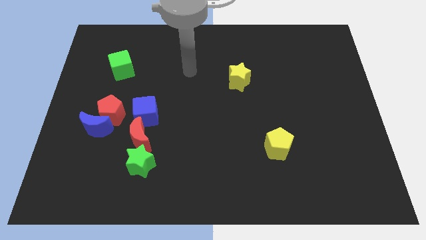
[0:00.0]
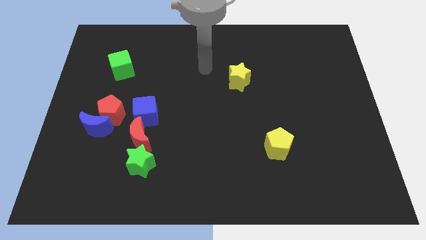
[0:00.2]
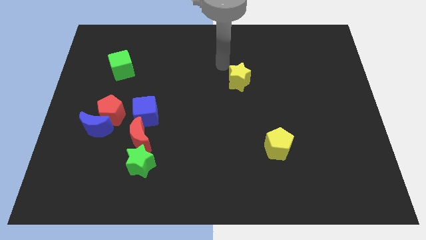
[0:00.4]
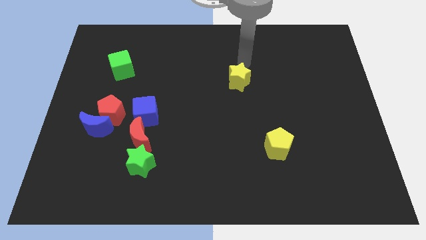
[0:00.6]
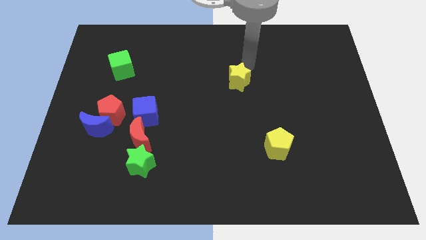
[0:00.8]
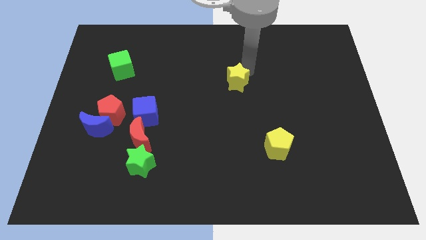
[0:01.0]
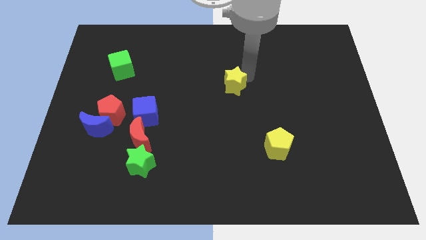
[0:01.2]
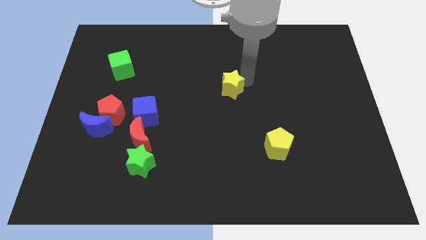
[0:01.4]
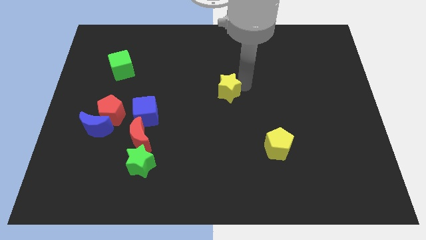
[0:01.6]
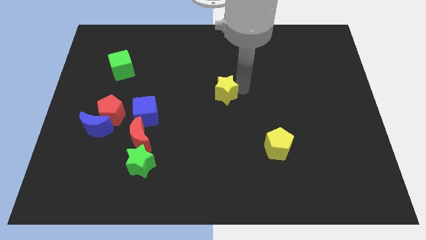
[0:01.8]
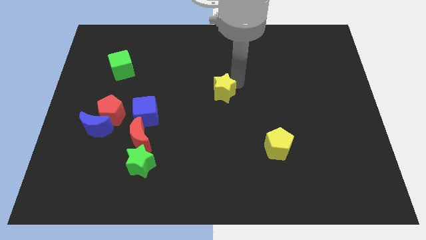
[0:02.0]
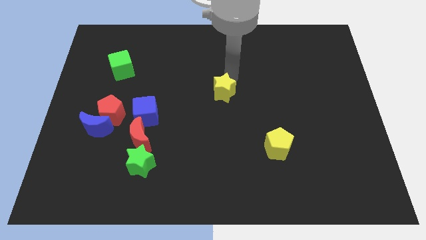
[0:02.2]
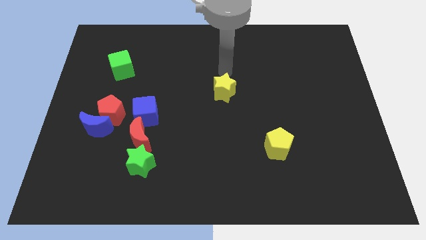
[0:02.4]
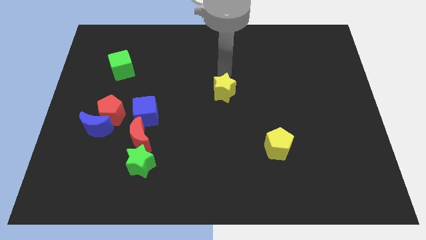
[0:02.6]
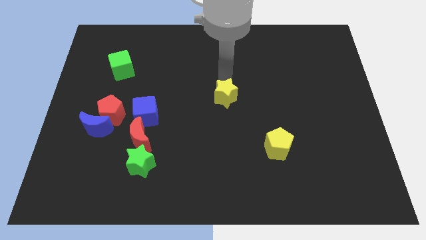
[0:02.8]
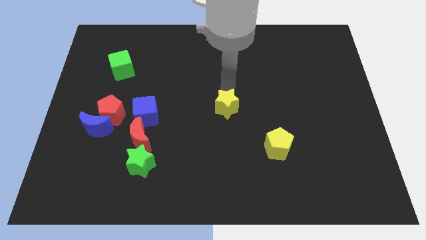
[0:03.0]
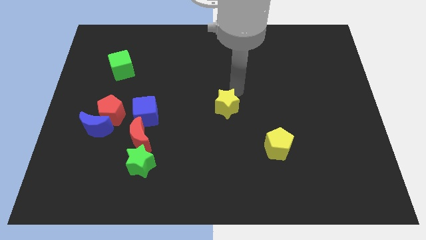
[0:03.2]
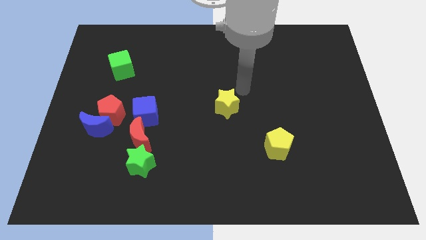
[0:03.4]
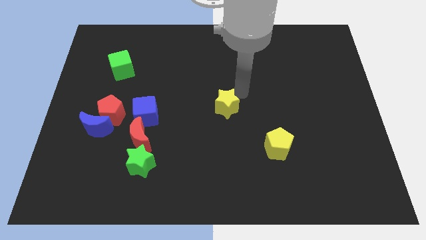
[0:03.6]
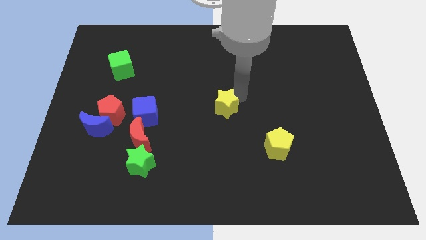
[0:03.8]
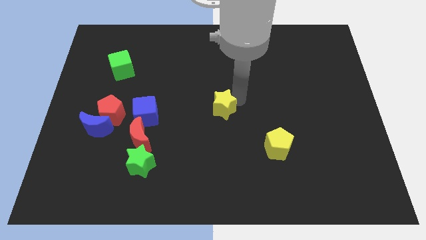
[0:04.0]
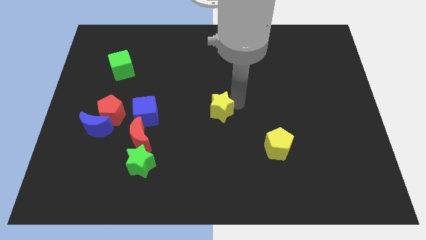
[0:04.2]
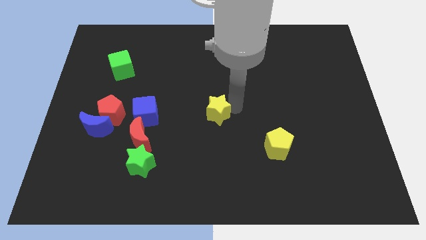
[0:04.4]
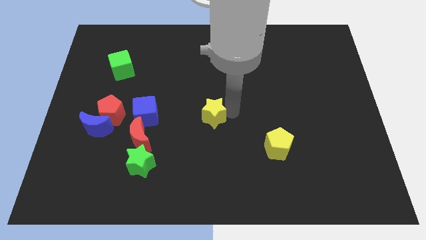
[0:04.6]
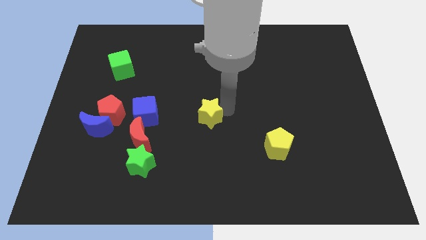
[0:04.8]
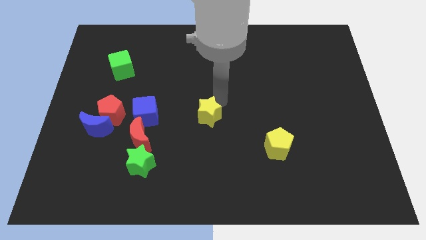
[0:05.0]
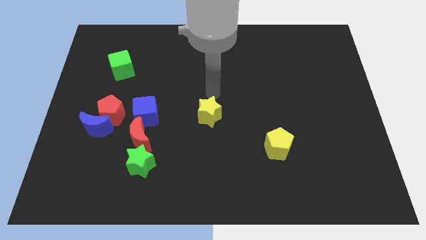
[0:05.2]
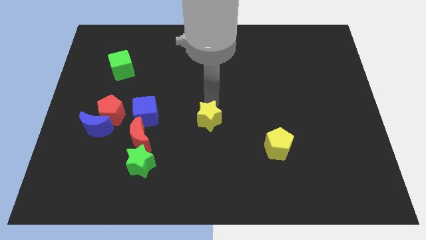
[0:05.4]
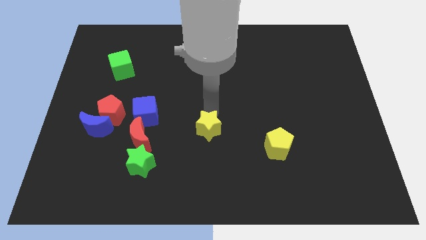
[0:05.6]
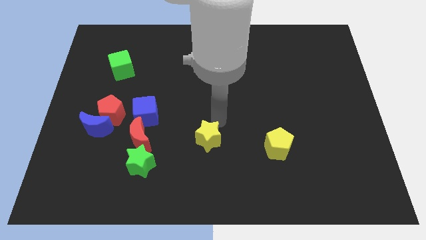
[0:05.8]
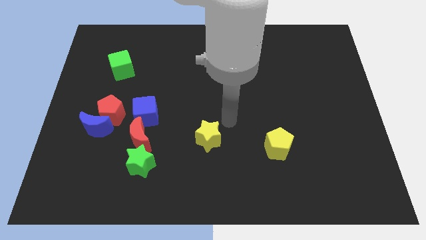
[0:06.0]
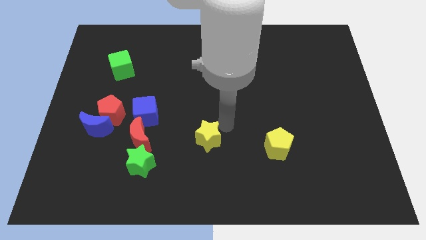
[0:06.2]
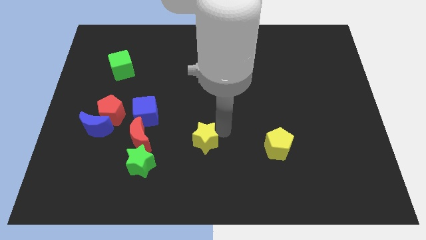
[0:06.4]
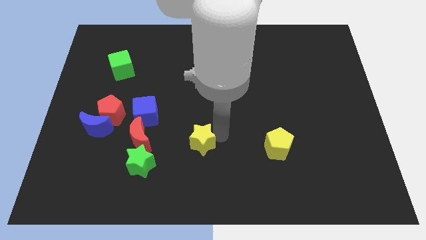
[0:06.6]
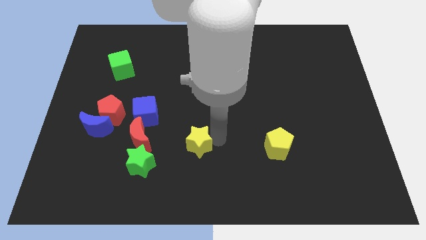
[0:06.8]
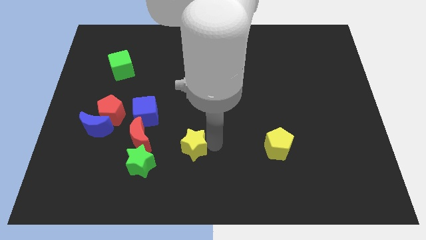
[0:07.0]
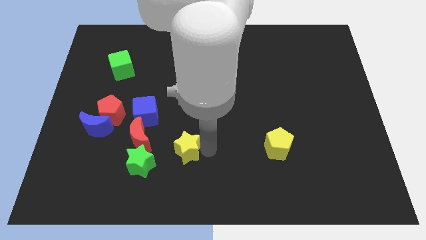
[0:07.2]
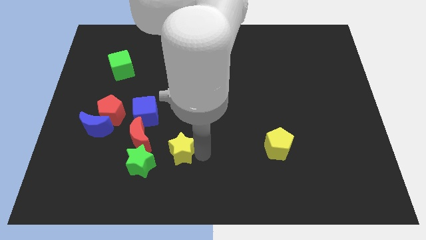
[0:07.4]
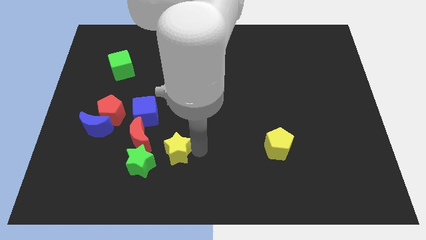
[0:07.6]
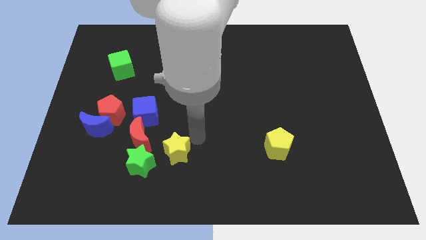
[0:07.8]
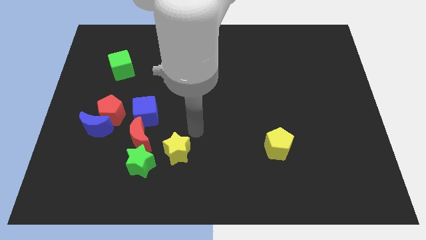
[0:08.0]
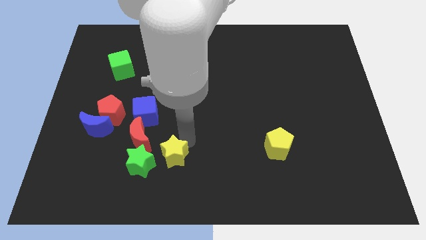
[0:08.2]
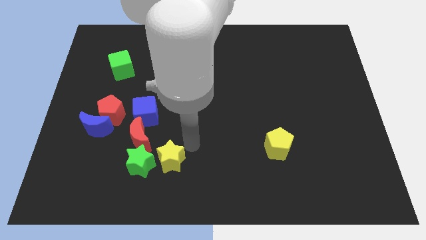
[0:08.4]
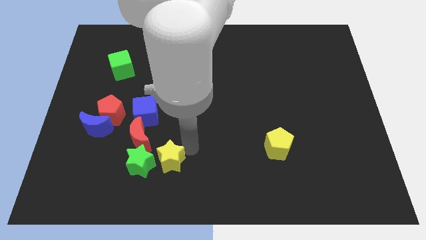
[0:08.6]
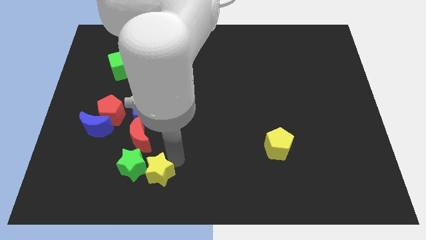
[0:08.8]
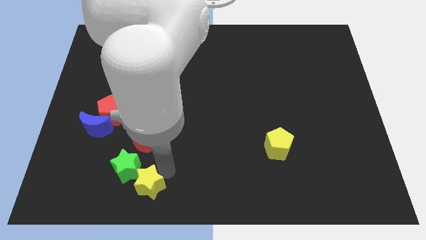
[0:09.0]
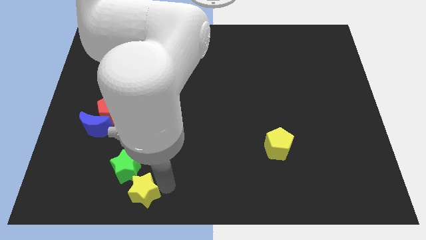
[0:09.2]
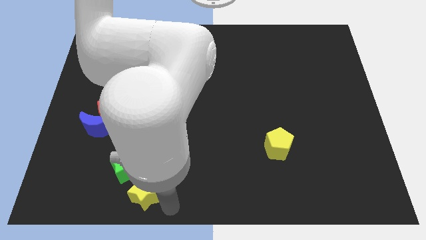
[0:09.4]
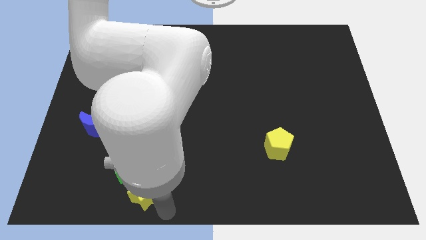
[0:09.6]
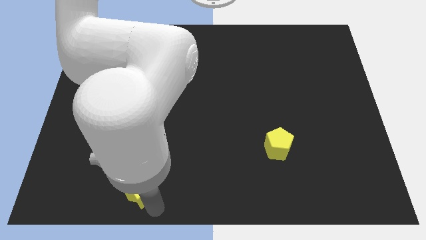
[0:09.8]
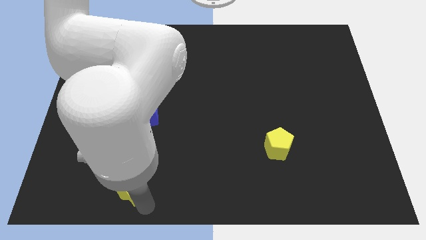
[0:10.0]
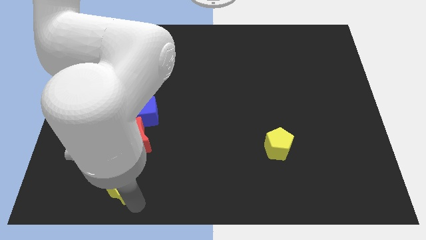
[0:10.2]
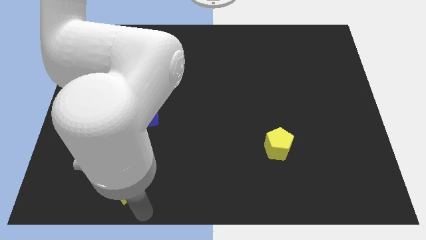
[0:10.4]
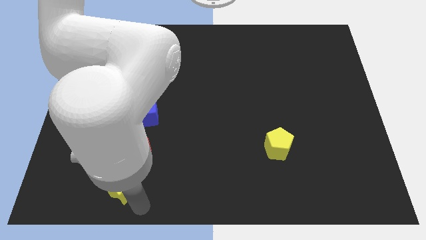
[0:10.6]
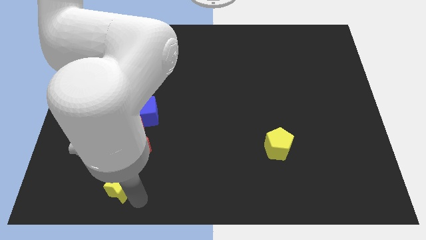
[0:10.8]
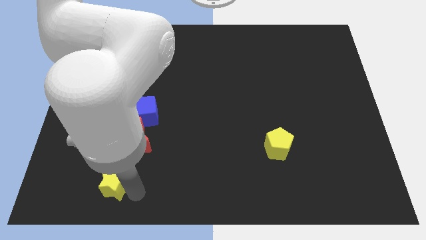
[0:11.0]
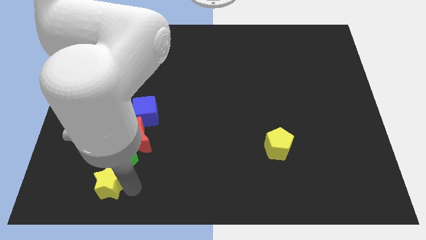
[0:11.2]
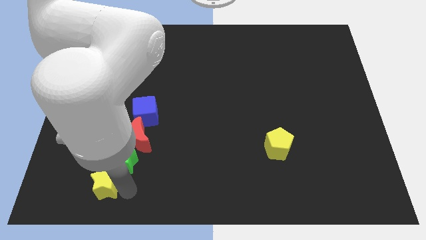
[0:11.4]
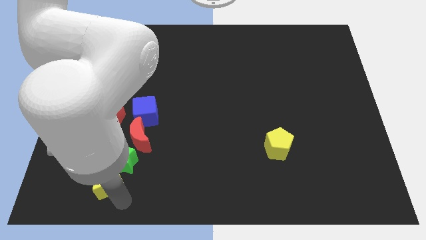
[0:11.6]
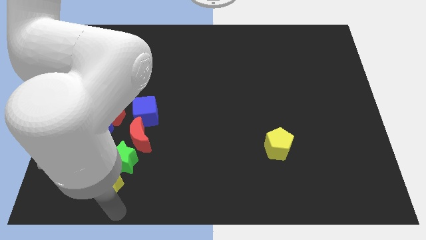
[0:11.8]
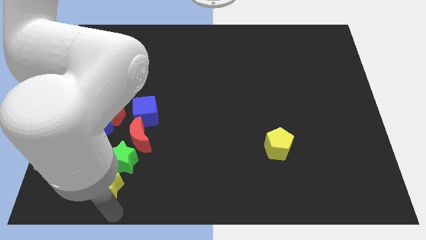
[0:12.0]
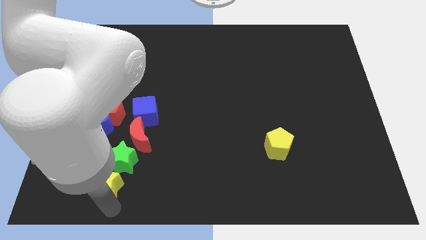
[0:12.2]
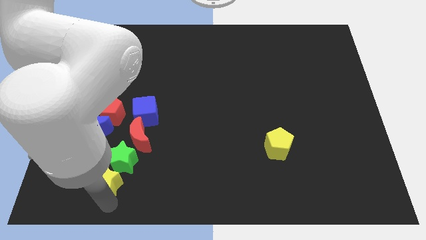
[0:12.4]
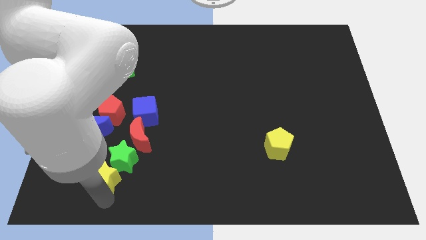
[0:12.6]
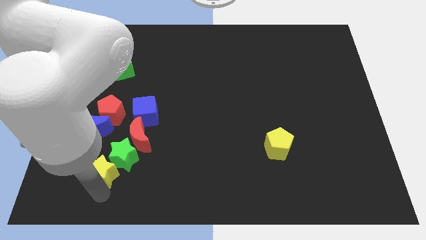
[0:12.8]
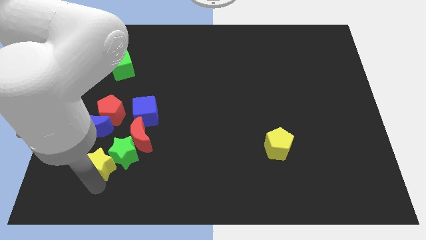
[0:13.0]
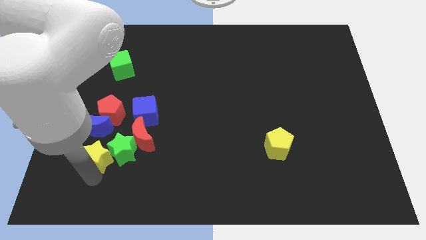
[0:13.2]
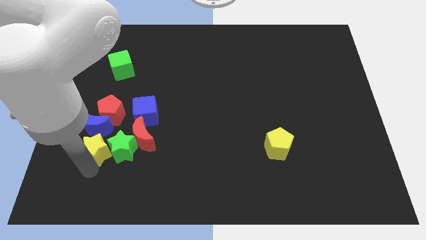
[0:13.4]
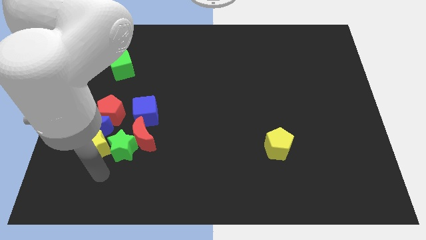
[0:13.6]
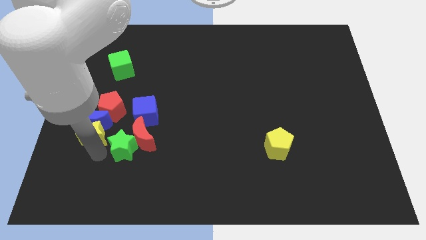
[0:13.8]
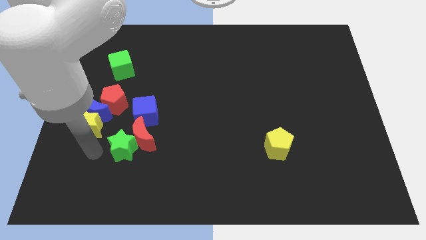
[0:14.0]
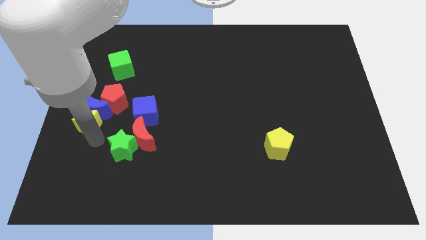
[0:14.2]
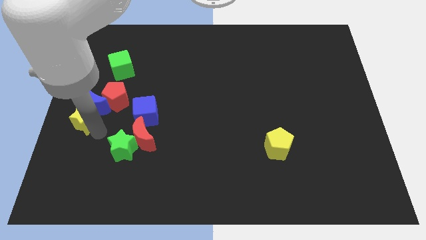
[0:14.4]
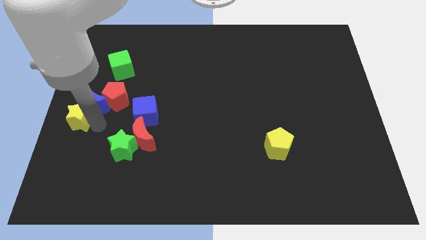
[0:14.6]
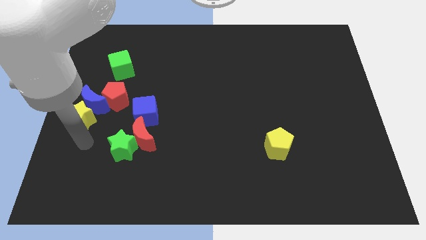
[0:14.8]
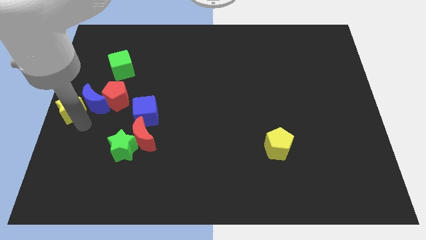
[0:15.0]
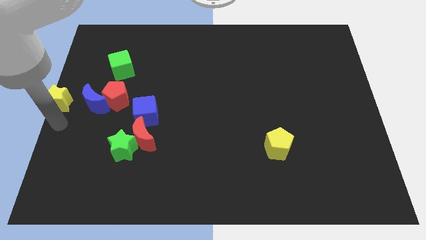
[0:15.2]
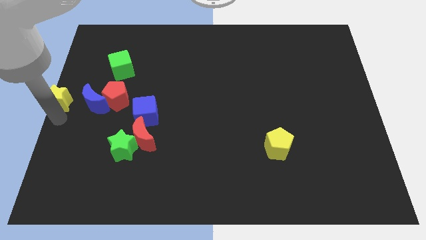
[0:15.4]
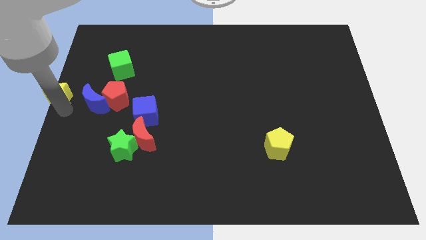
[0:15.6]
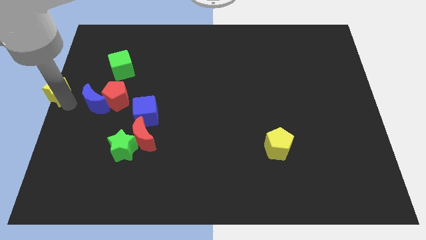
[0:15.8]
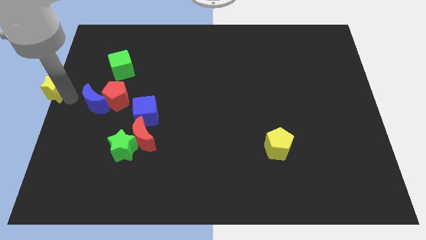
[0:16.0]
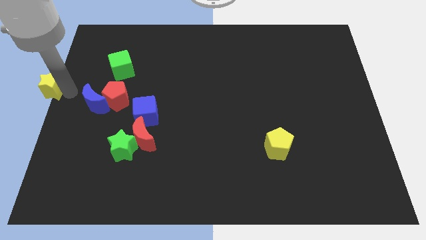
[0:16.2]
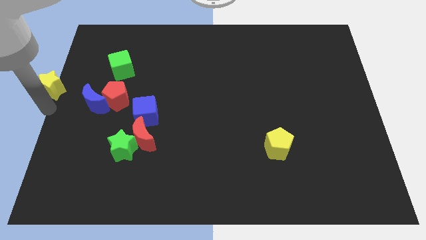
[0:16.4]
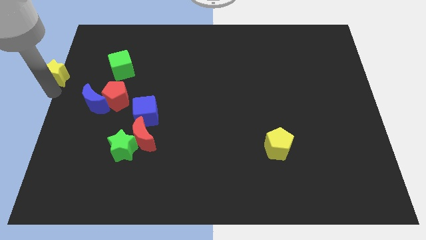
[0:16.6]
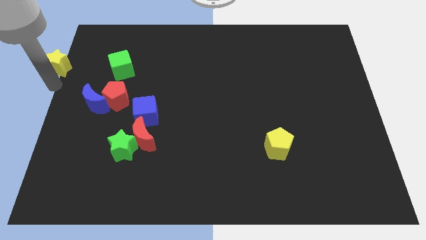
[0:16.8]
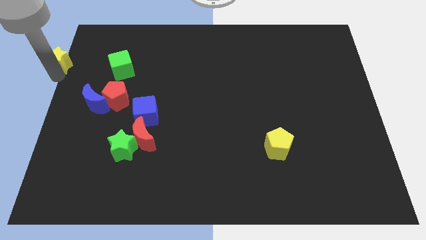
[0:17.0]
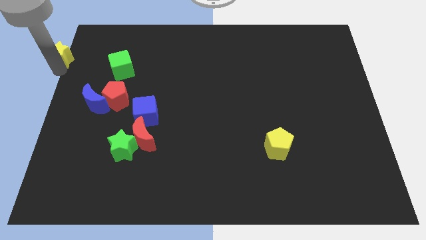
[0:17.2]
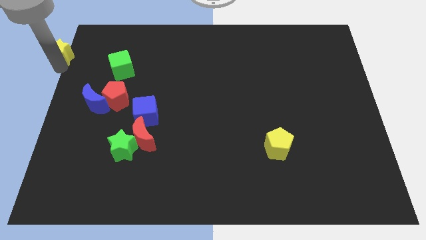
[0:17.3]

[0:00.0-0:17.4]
push the yellow star to the upper left corner
